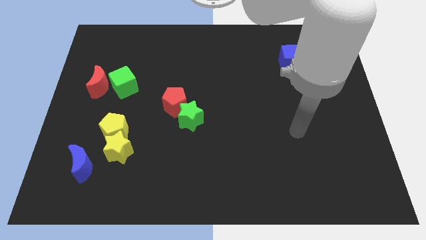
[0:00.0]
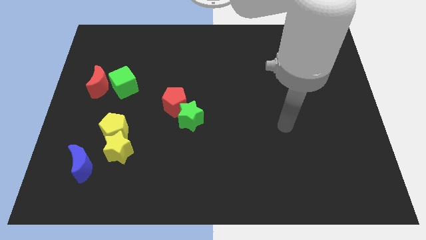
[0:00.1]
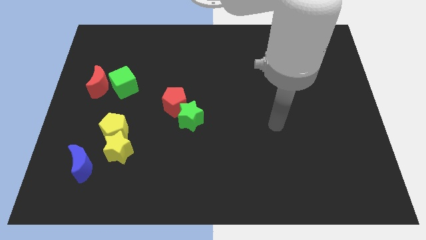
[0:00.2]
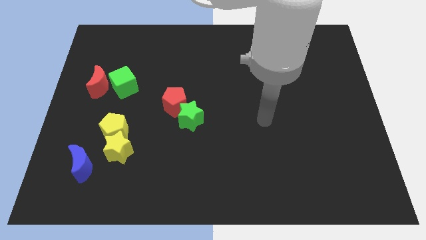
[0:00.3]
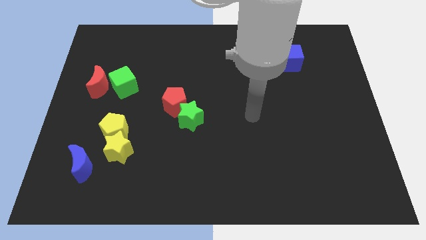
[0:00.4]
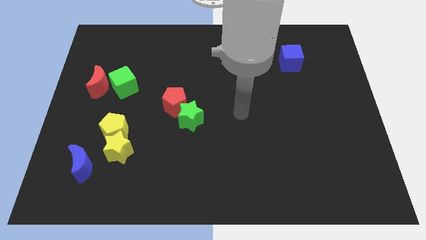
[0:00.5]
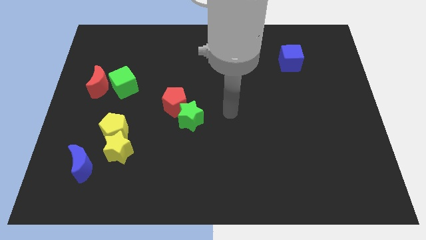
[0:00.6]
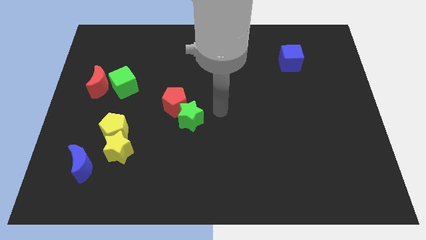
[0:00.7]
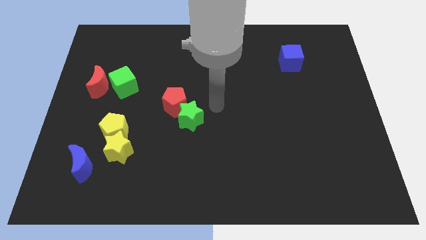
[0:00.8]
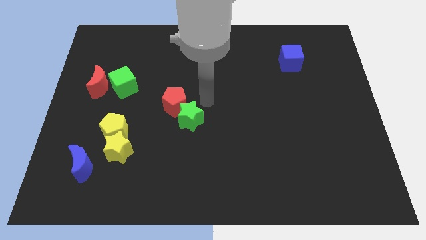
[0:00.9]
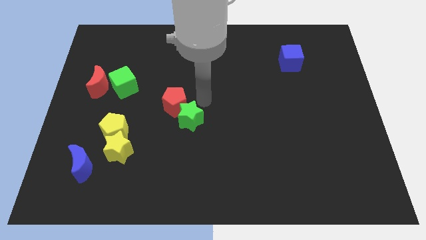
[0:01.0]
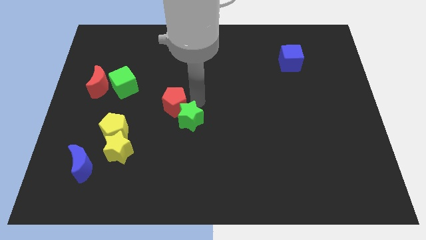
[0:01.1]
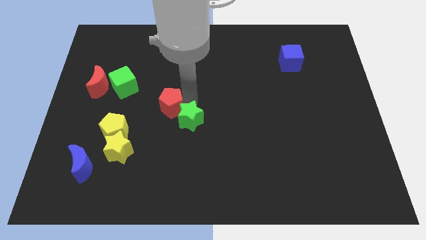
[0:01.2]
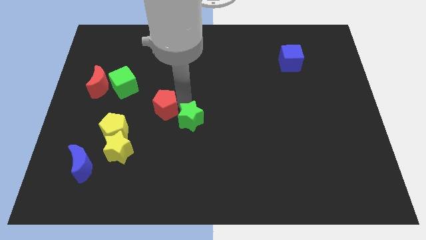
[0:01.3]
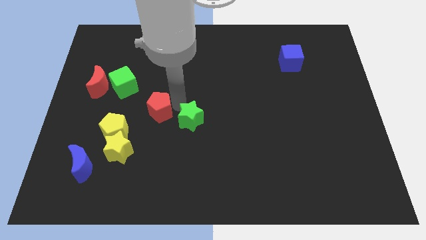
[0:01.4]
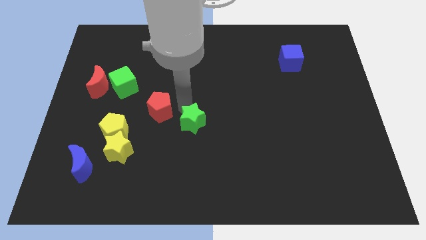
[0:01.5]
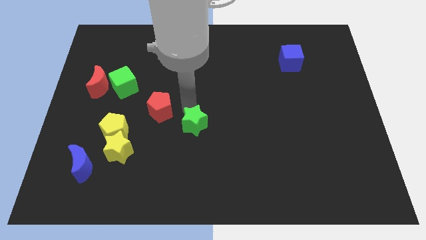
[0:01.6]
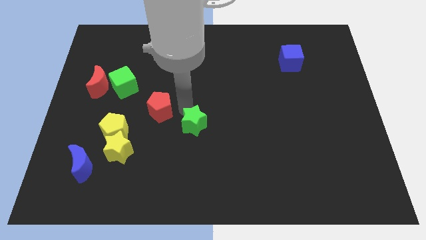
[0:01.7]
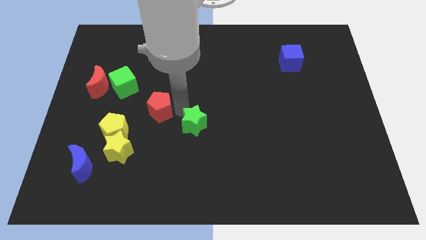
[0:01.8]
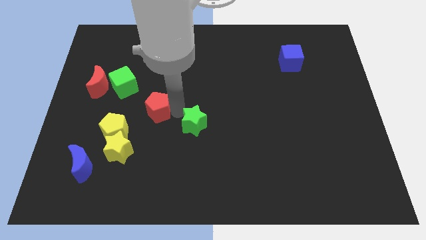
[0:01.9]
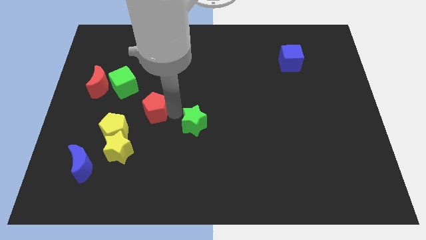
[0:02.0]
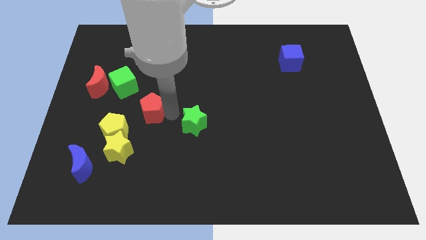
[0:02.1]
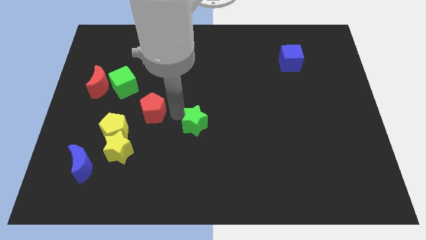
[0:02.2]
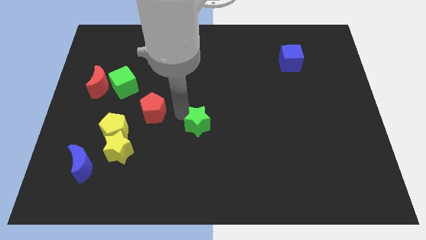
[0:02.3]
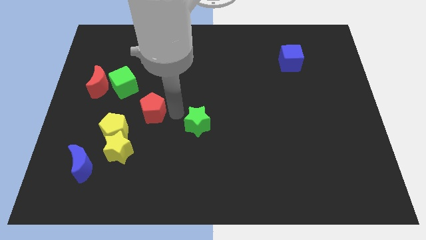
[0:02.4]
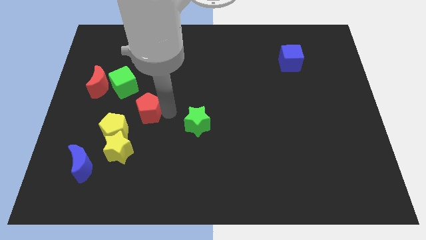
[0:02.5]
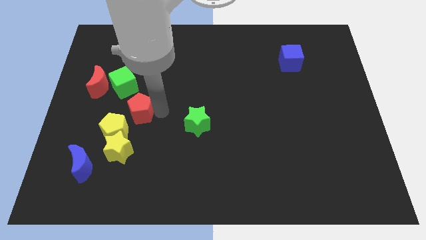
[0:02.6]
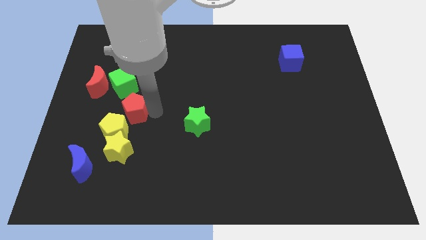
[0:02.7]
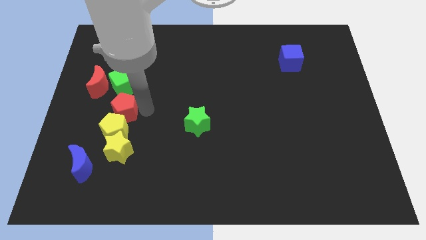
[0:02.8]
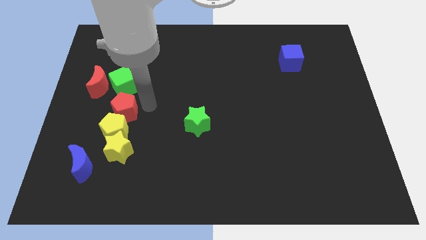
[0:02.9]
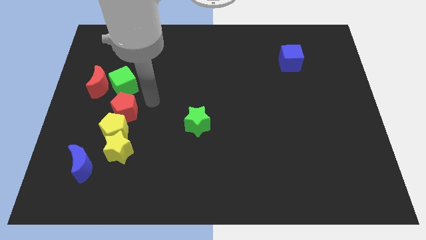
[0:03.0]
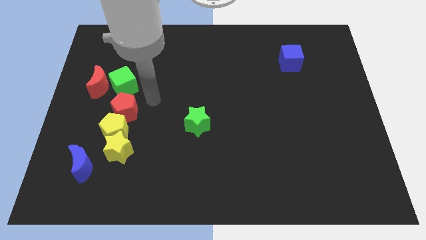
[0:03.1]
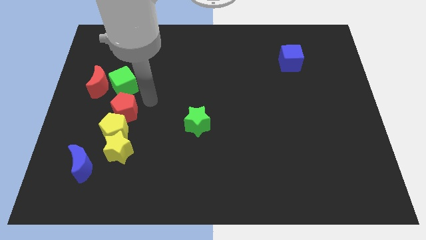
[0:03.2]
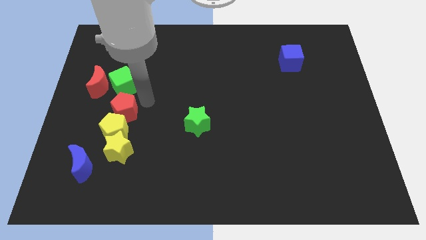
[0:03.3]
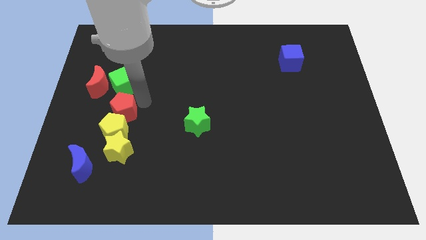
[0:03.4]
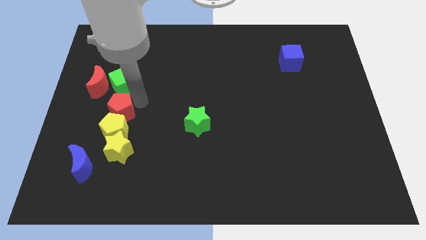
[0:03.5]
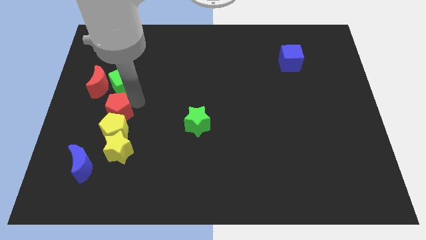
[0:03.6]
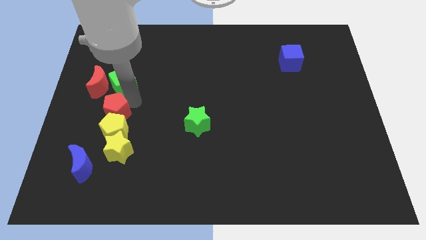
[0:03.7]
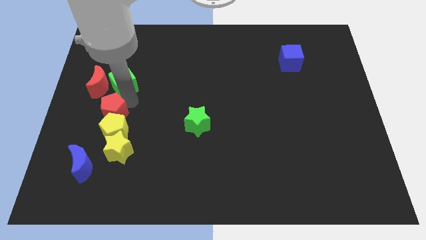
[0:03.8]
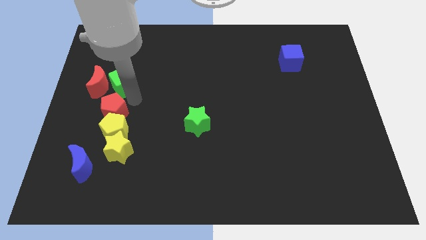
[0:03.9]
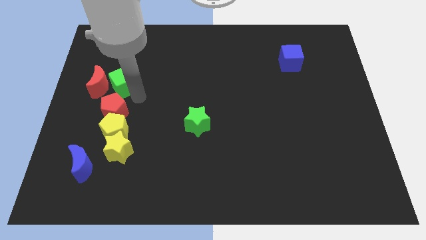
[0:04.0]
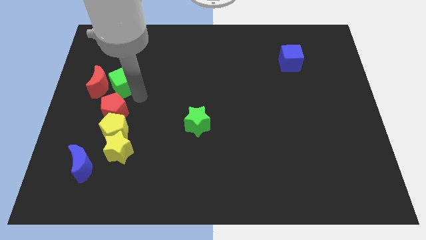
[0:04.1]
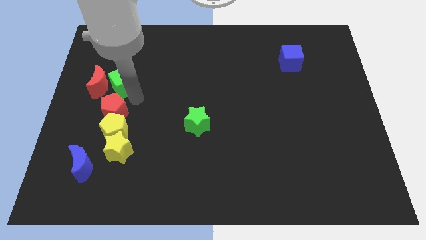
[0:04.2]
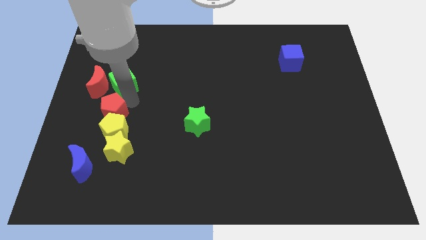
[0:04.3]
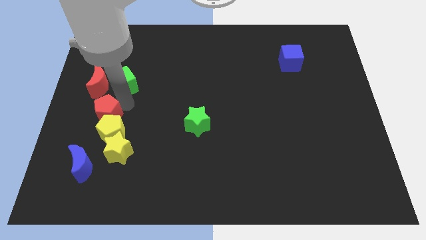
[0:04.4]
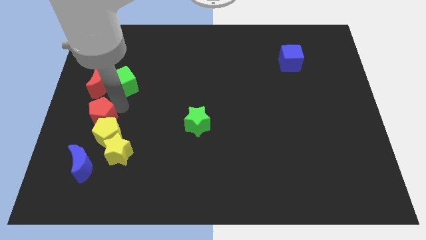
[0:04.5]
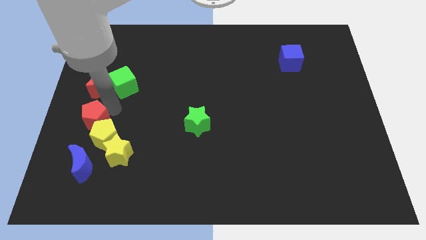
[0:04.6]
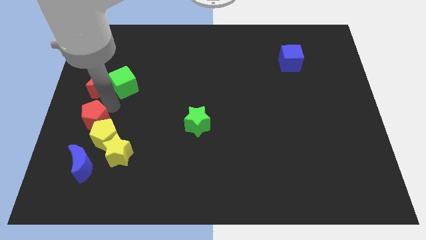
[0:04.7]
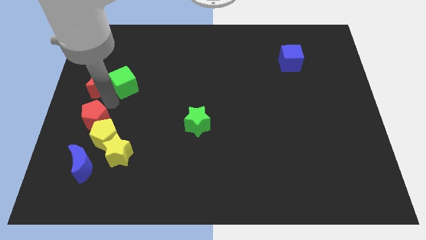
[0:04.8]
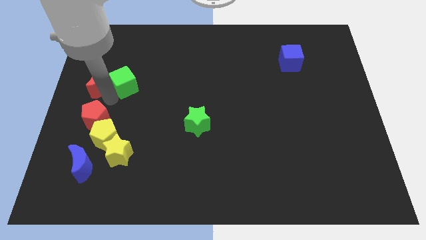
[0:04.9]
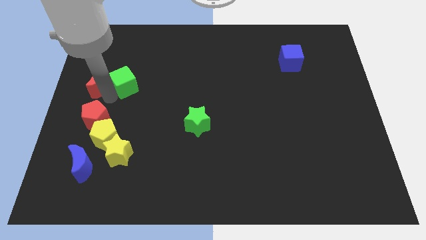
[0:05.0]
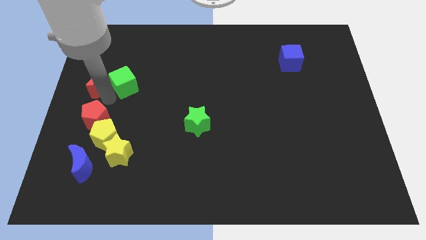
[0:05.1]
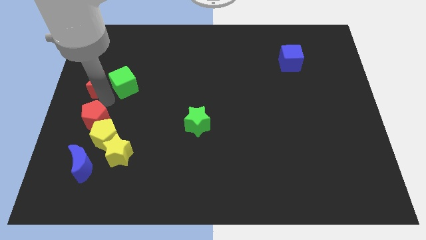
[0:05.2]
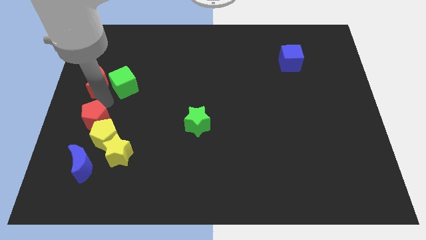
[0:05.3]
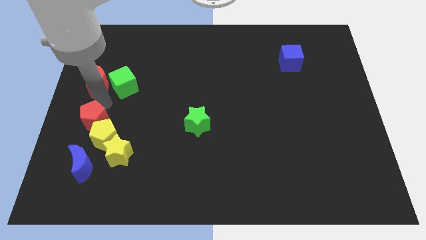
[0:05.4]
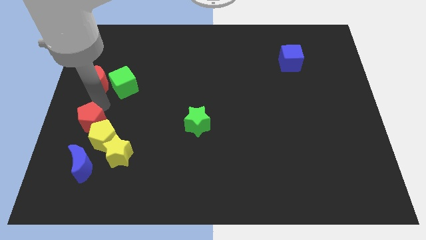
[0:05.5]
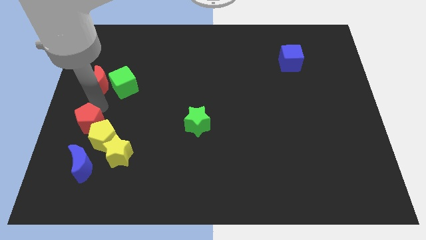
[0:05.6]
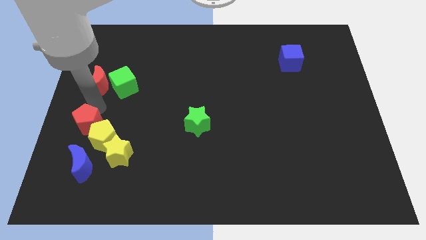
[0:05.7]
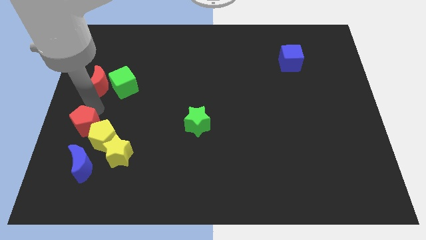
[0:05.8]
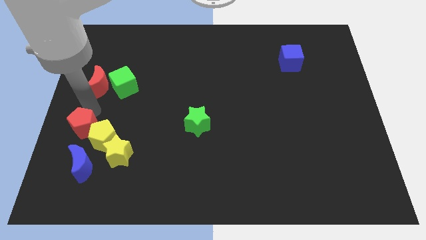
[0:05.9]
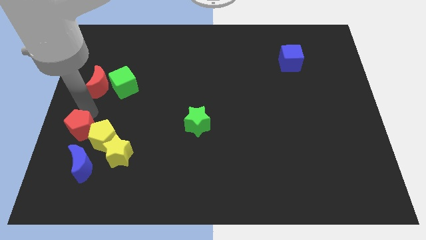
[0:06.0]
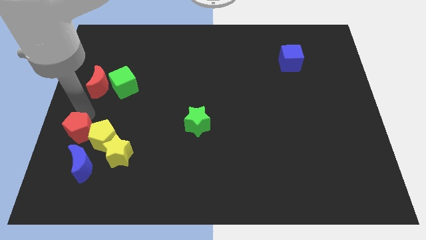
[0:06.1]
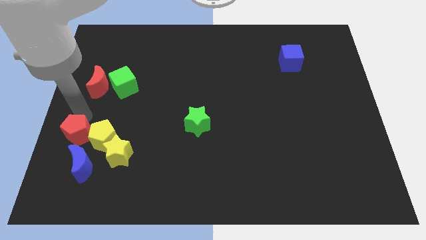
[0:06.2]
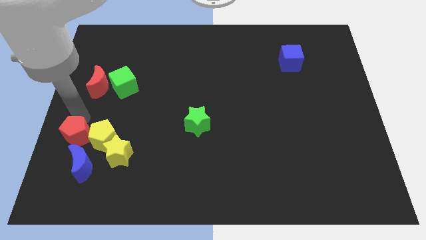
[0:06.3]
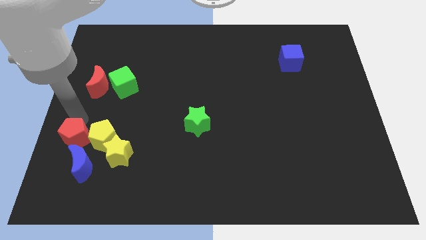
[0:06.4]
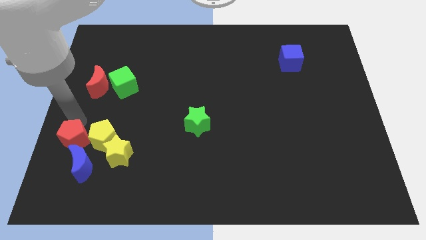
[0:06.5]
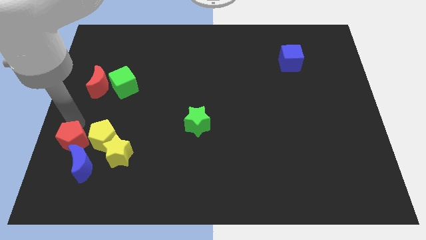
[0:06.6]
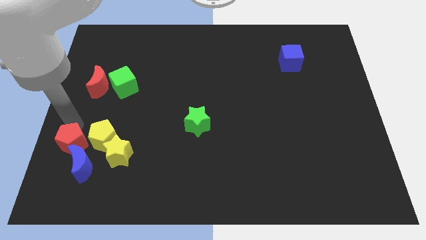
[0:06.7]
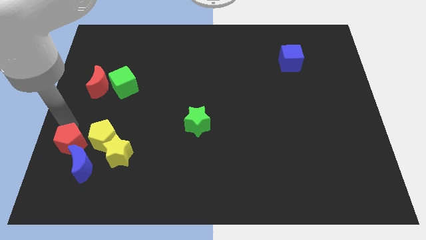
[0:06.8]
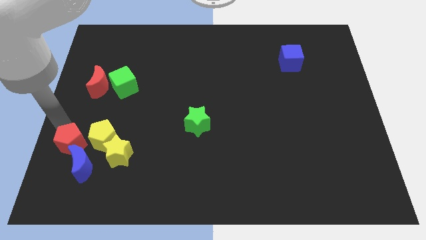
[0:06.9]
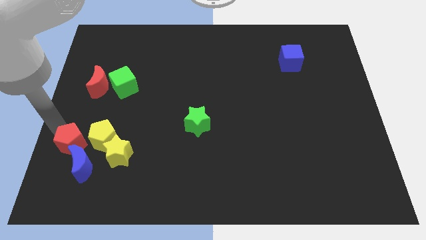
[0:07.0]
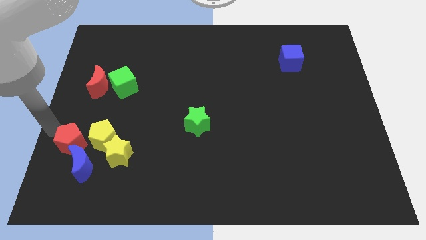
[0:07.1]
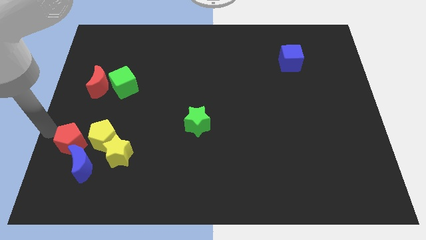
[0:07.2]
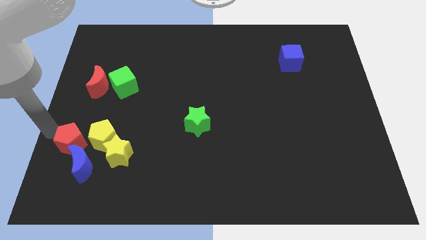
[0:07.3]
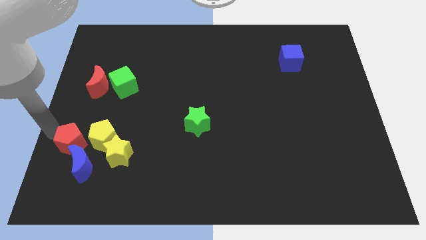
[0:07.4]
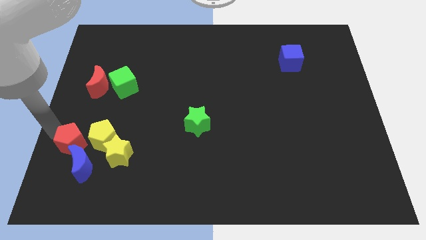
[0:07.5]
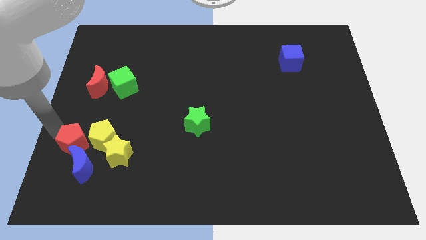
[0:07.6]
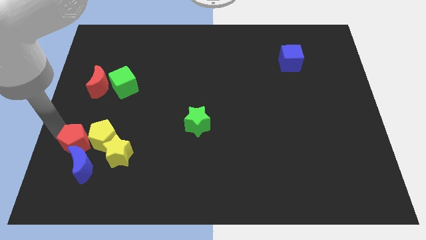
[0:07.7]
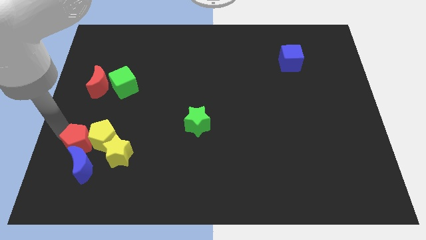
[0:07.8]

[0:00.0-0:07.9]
put the red pentagon close to the blue moon
